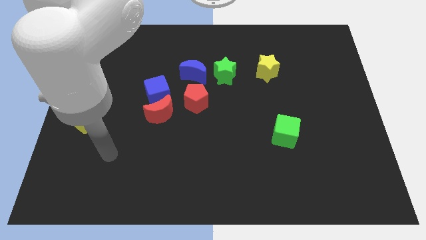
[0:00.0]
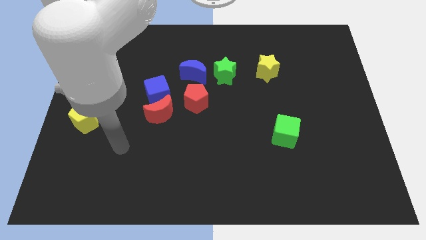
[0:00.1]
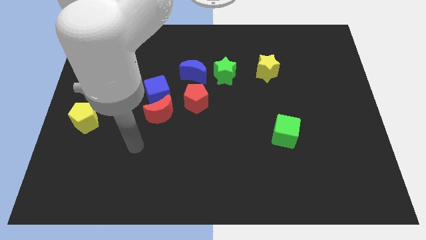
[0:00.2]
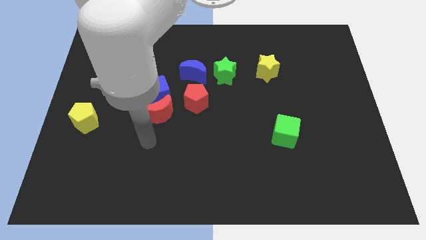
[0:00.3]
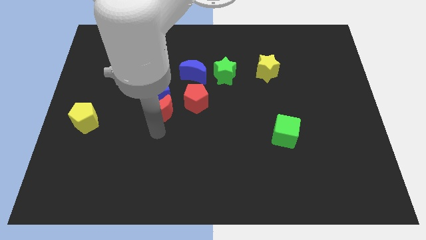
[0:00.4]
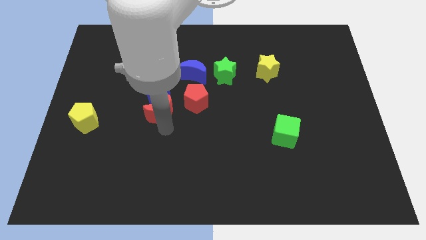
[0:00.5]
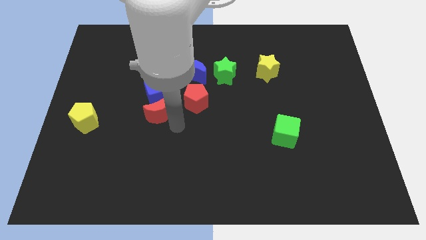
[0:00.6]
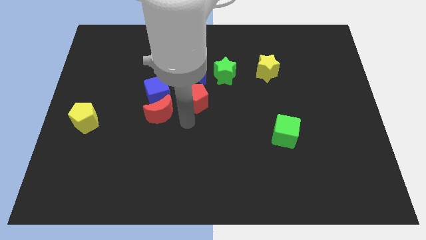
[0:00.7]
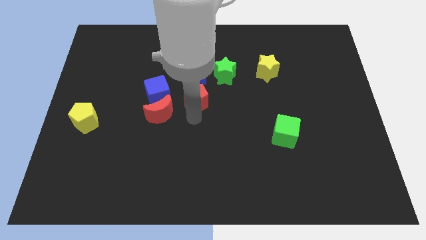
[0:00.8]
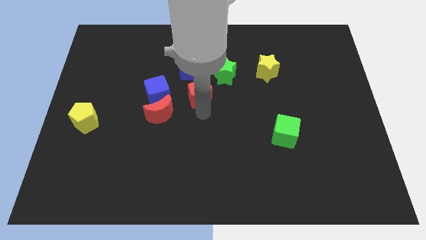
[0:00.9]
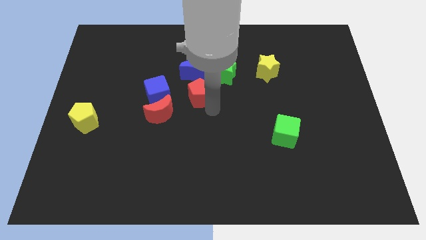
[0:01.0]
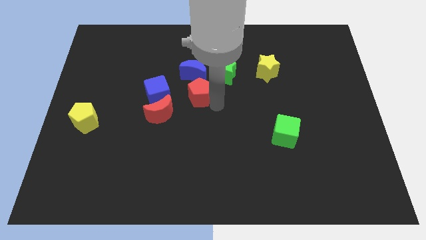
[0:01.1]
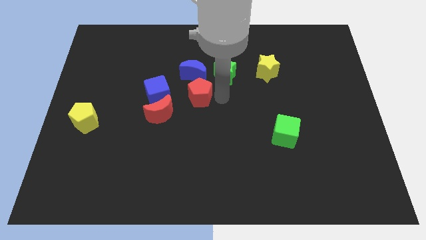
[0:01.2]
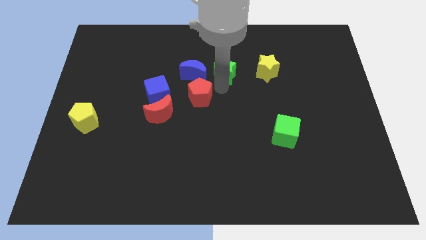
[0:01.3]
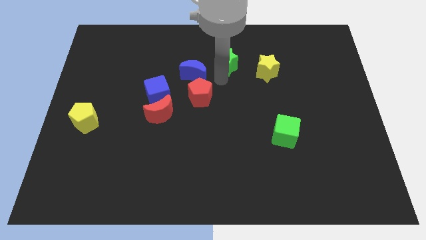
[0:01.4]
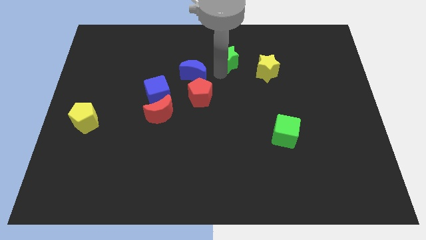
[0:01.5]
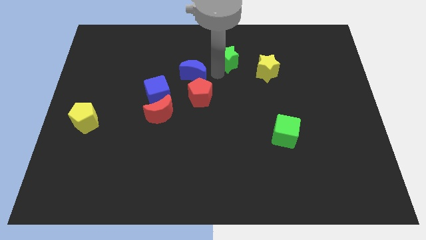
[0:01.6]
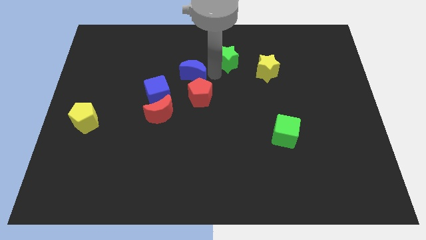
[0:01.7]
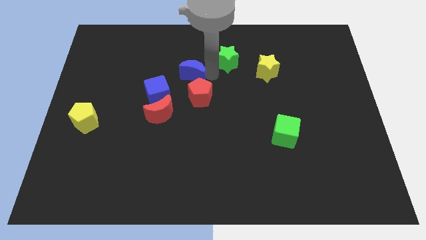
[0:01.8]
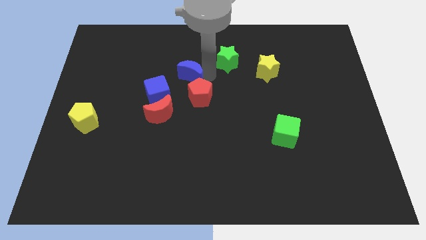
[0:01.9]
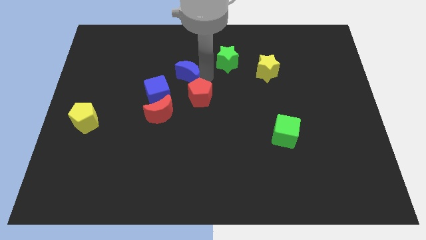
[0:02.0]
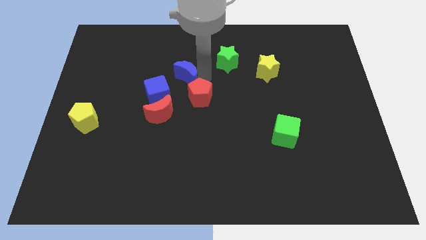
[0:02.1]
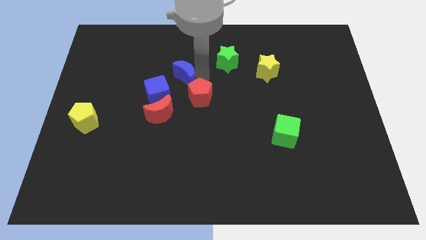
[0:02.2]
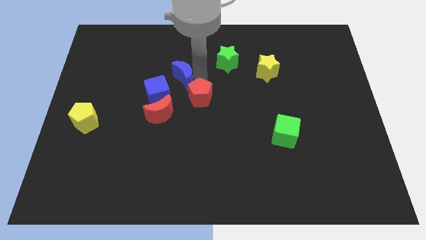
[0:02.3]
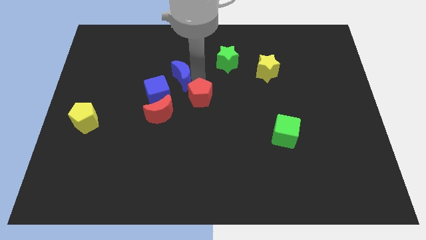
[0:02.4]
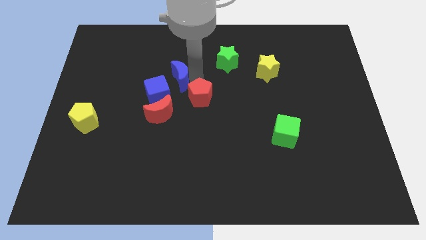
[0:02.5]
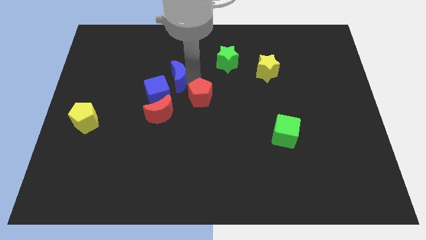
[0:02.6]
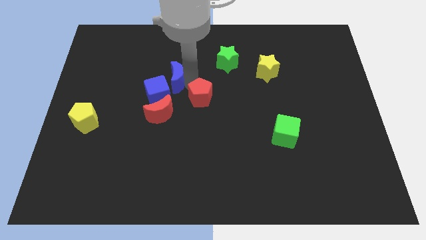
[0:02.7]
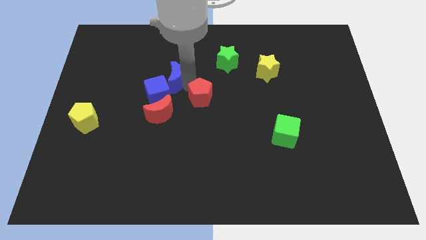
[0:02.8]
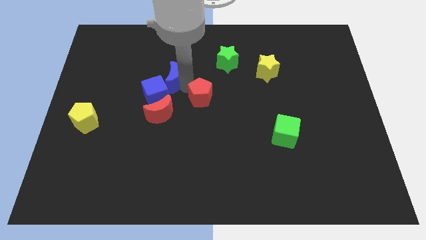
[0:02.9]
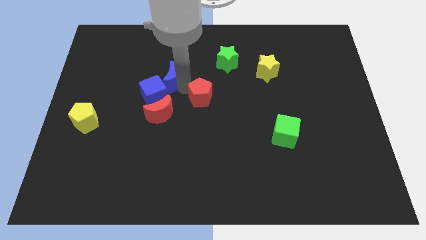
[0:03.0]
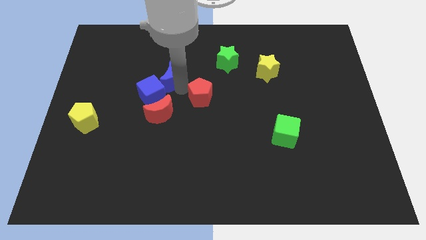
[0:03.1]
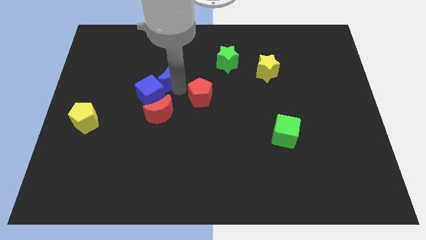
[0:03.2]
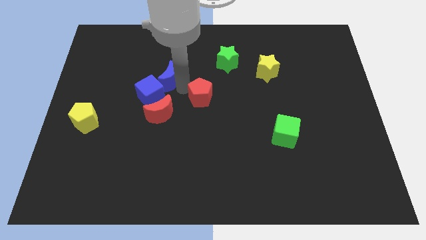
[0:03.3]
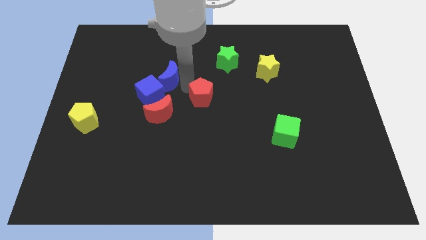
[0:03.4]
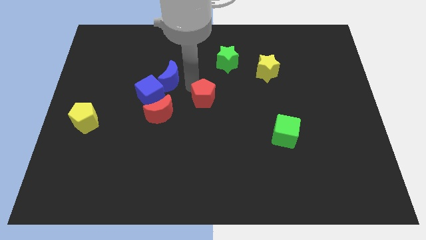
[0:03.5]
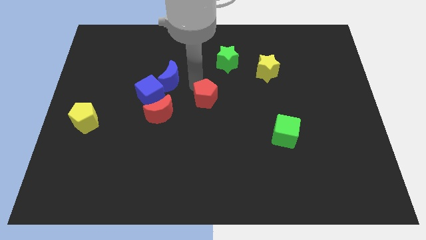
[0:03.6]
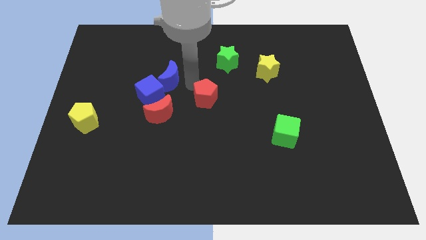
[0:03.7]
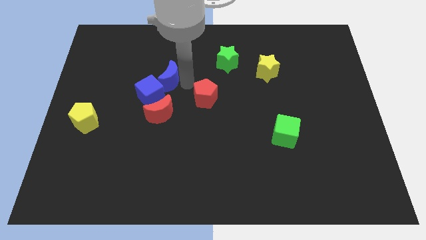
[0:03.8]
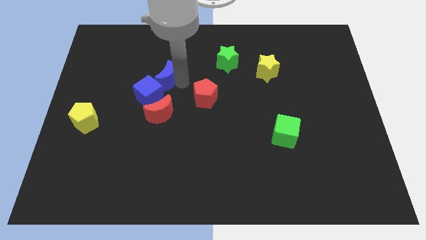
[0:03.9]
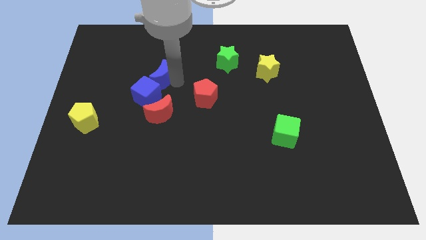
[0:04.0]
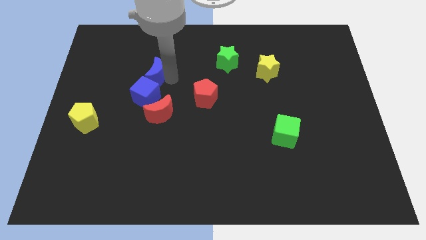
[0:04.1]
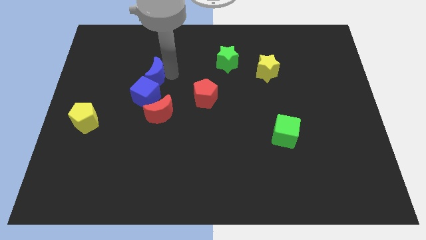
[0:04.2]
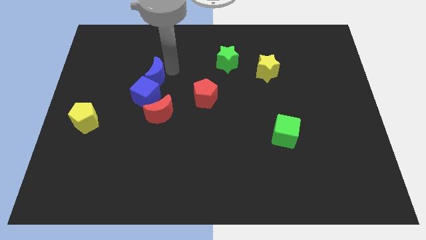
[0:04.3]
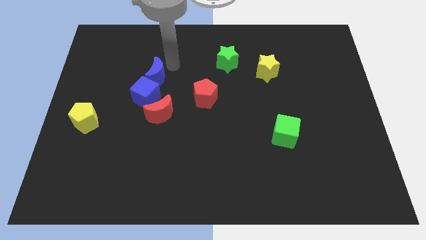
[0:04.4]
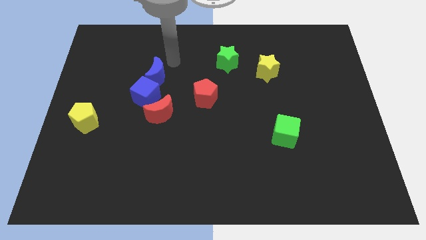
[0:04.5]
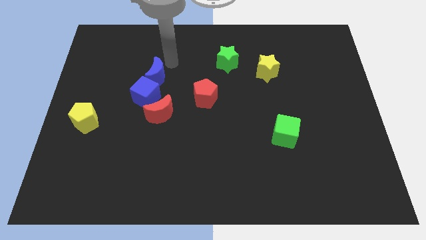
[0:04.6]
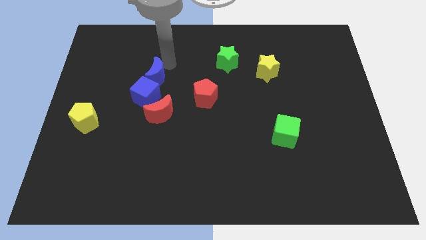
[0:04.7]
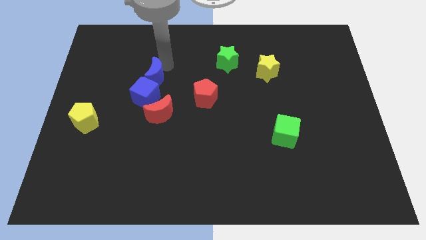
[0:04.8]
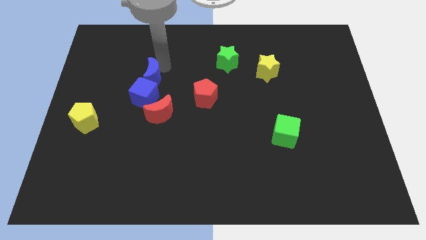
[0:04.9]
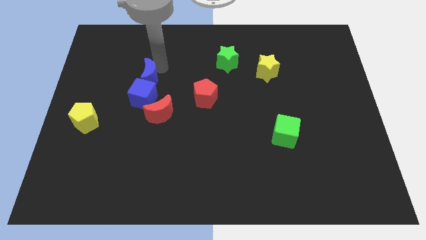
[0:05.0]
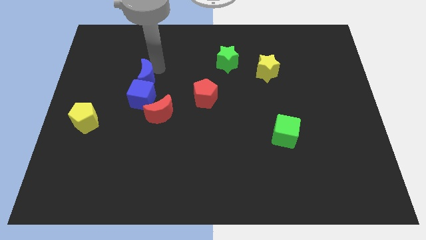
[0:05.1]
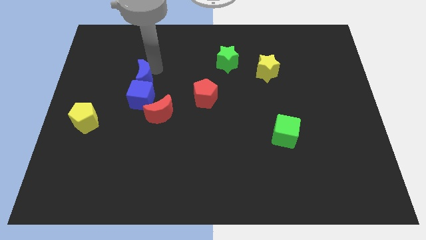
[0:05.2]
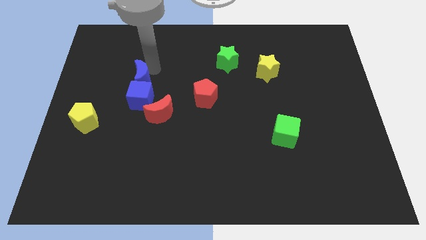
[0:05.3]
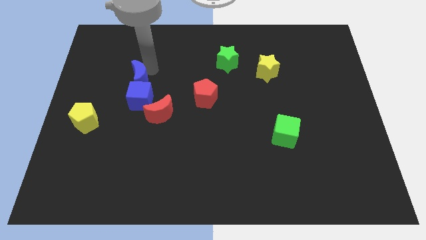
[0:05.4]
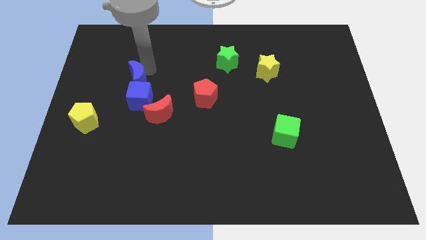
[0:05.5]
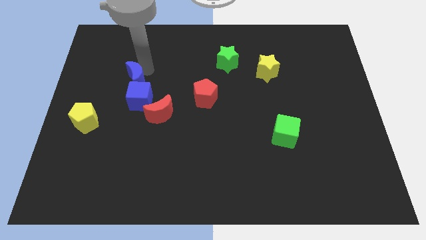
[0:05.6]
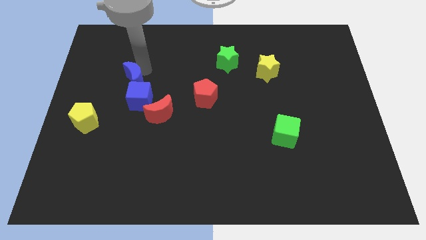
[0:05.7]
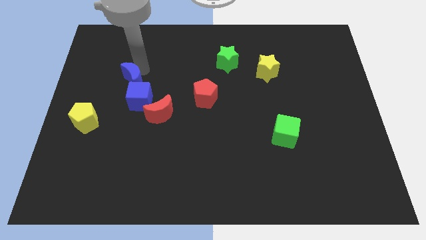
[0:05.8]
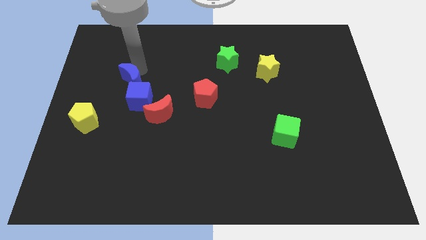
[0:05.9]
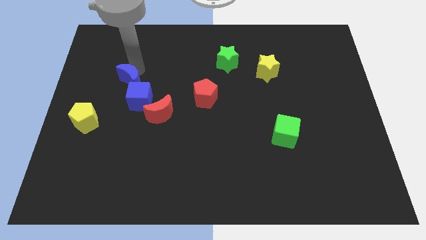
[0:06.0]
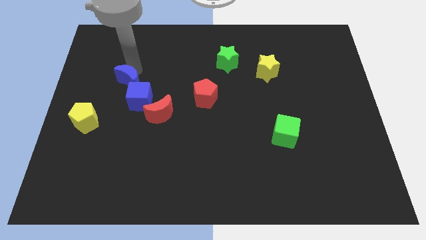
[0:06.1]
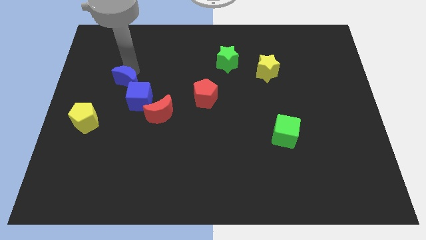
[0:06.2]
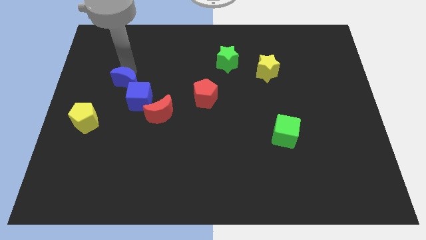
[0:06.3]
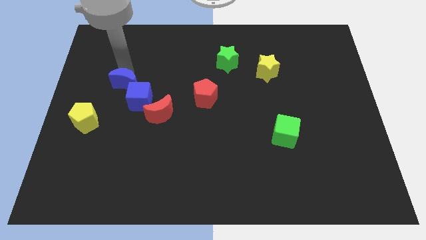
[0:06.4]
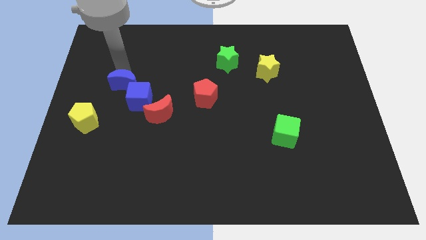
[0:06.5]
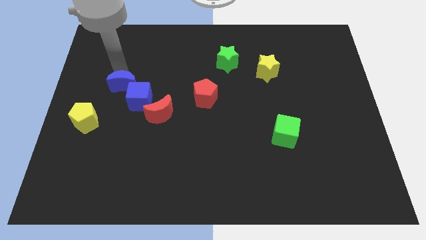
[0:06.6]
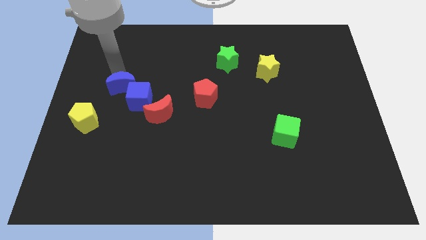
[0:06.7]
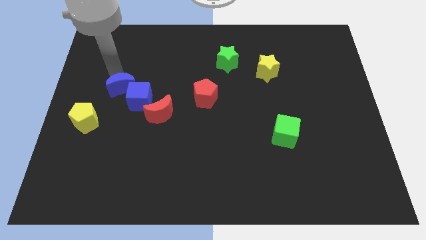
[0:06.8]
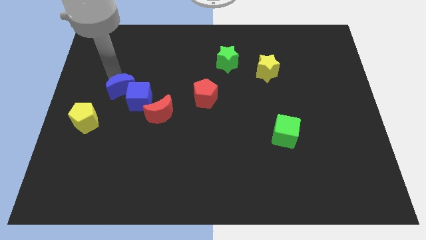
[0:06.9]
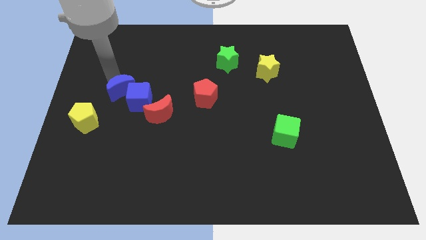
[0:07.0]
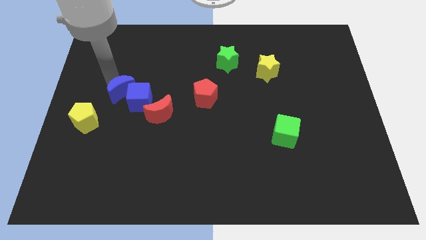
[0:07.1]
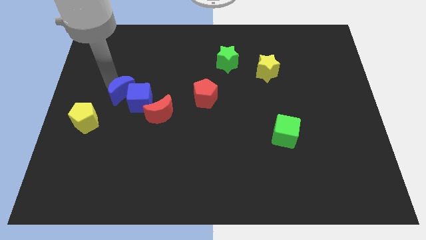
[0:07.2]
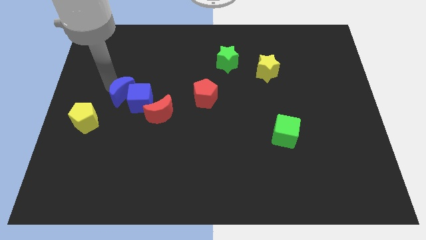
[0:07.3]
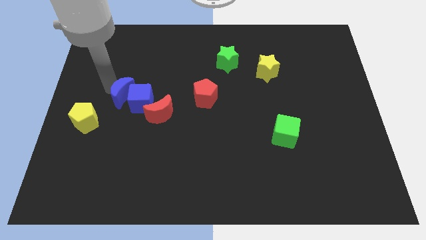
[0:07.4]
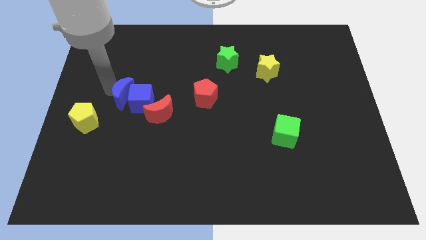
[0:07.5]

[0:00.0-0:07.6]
push the blue moon to the bottom left side of the blue cube
